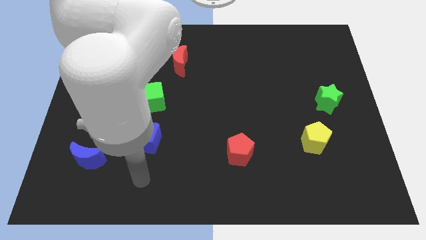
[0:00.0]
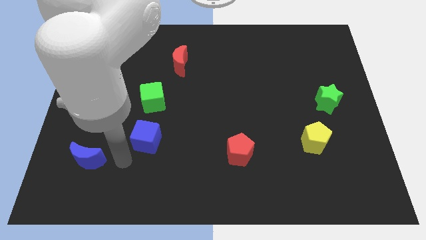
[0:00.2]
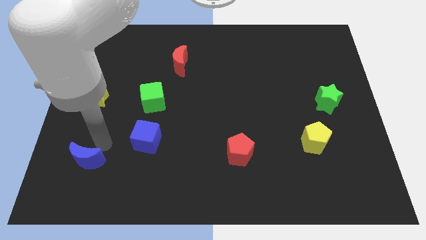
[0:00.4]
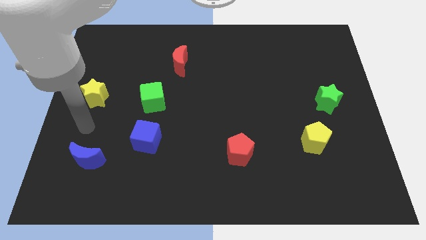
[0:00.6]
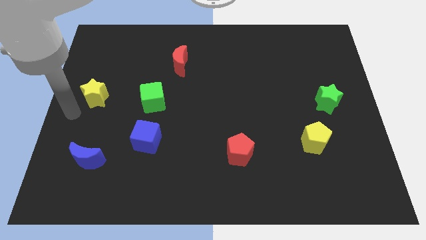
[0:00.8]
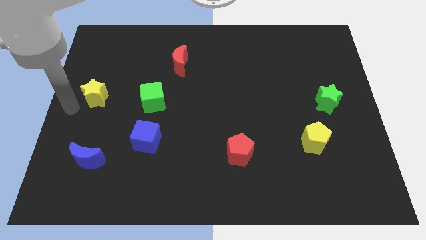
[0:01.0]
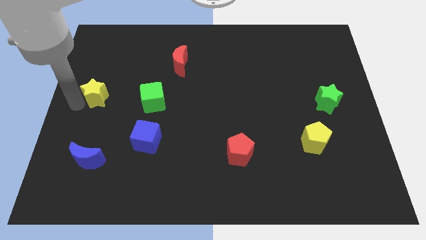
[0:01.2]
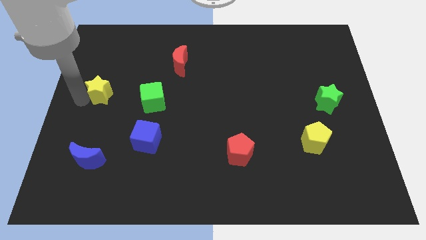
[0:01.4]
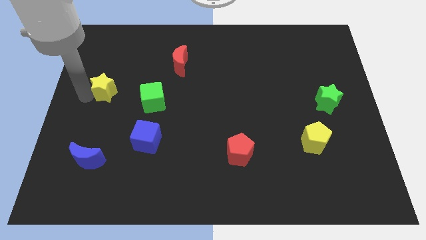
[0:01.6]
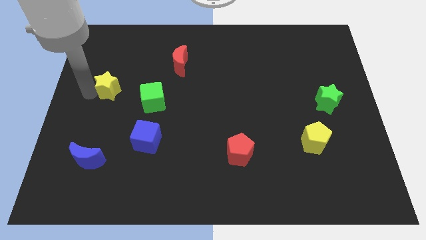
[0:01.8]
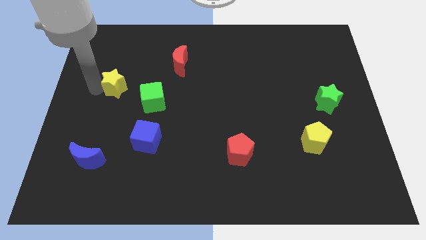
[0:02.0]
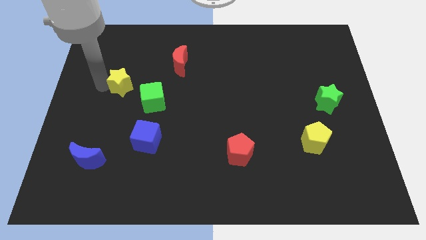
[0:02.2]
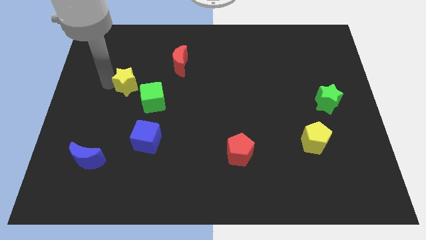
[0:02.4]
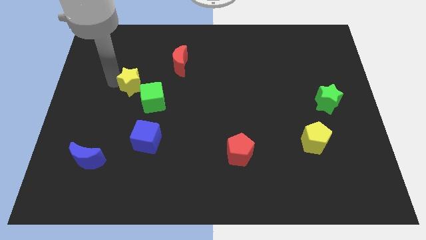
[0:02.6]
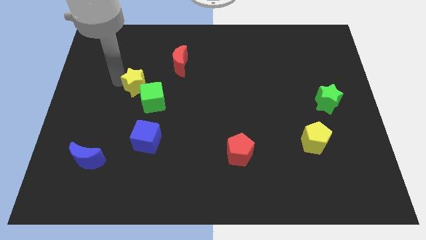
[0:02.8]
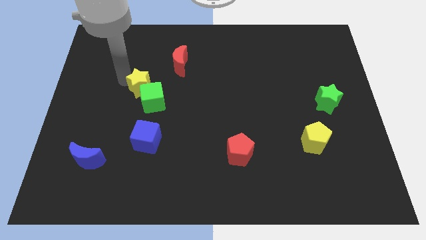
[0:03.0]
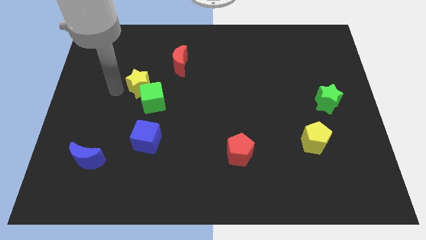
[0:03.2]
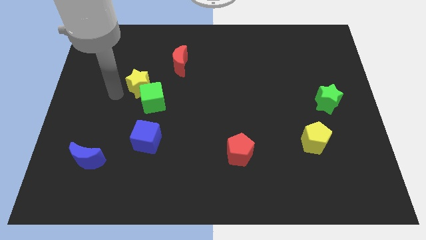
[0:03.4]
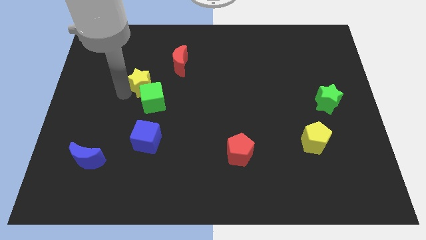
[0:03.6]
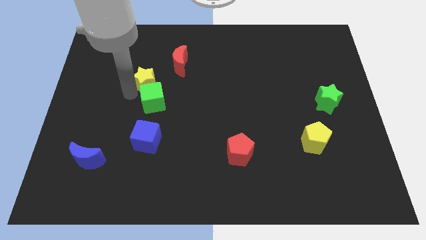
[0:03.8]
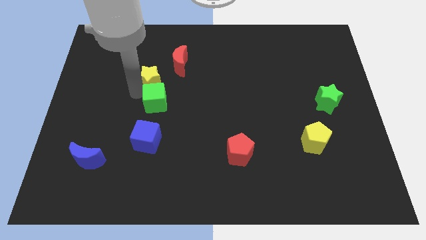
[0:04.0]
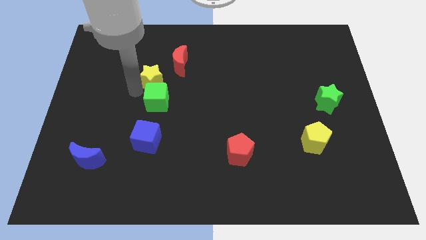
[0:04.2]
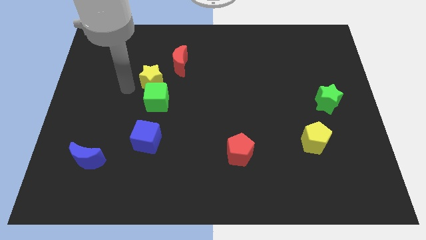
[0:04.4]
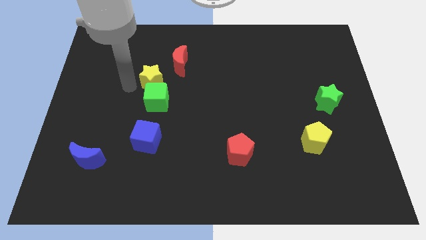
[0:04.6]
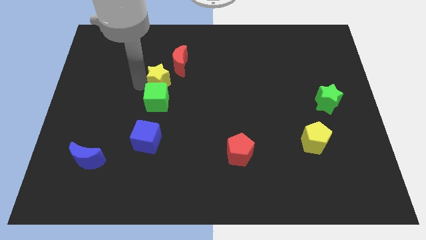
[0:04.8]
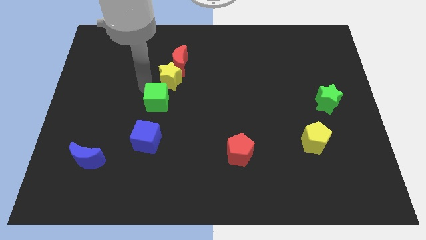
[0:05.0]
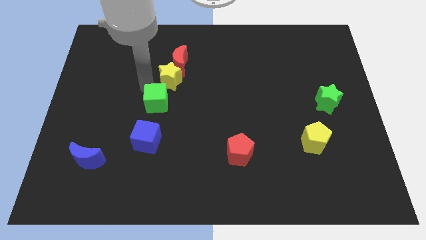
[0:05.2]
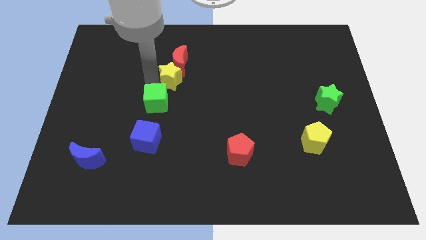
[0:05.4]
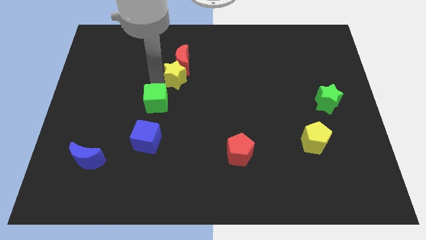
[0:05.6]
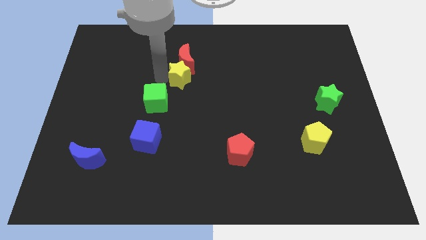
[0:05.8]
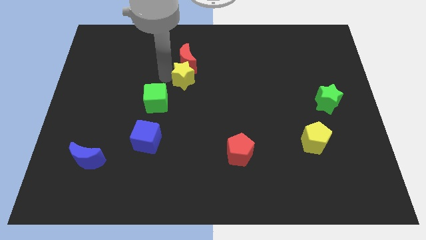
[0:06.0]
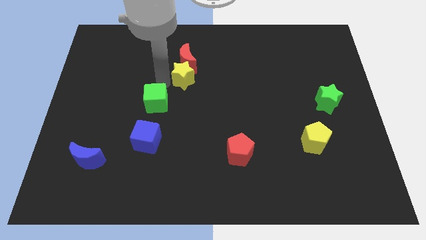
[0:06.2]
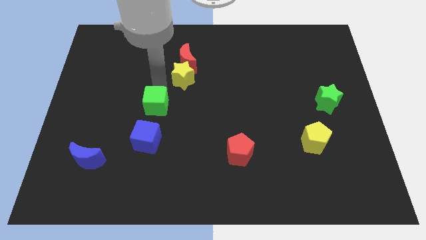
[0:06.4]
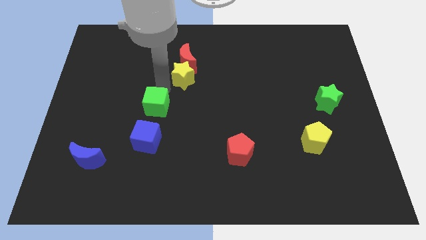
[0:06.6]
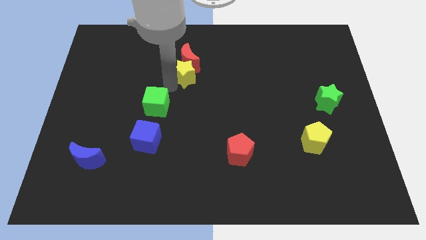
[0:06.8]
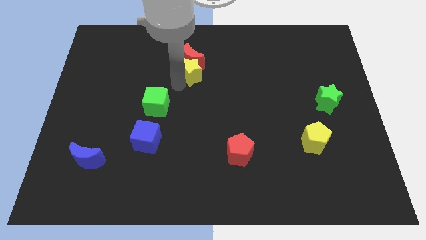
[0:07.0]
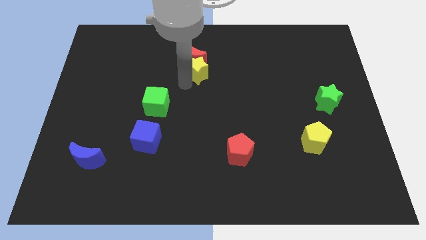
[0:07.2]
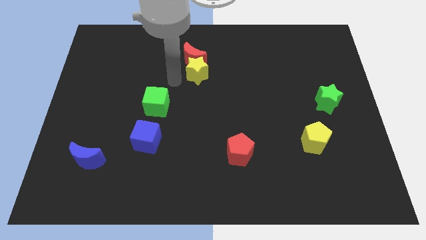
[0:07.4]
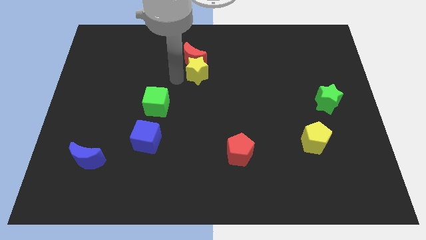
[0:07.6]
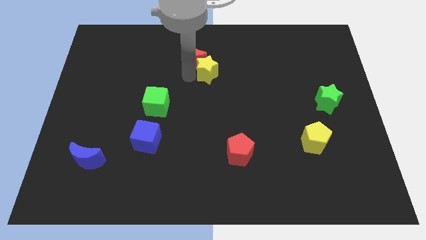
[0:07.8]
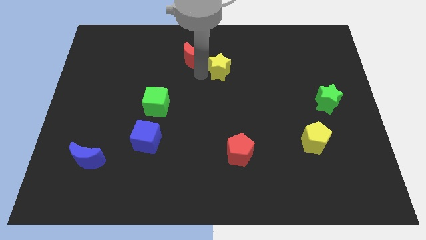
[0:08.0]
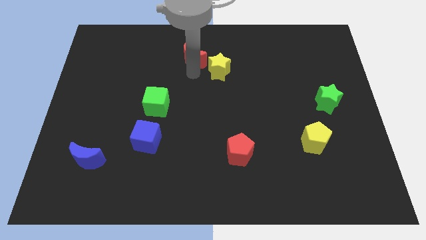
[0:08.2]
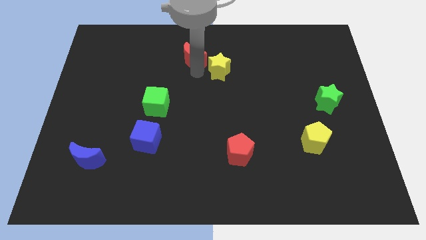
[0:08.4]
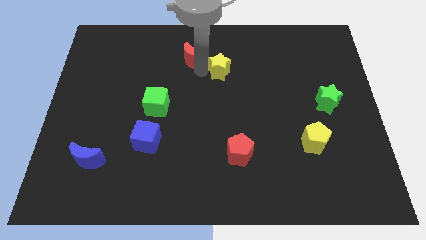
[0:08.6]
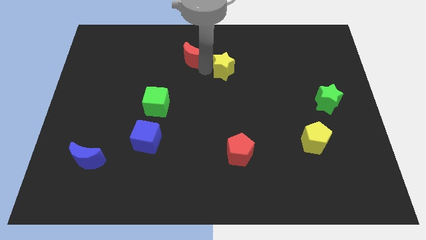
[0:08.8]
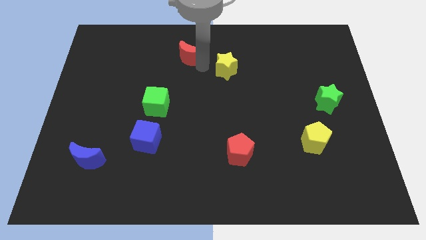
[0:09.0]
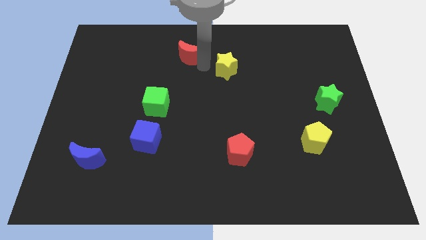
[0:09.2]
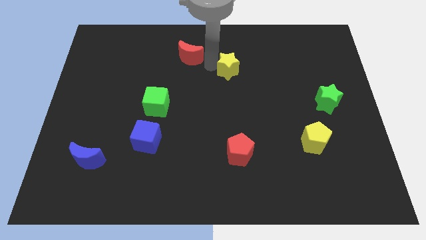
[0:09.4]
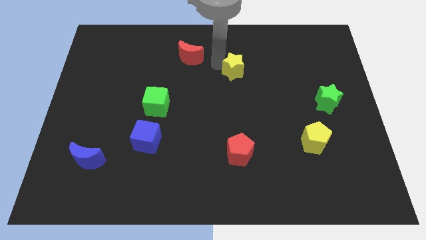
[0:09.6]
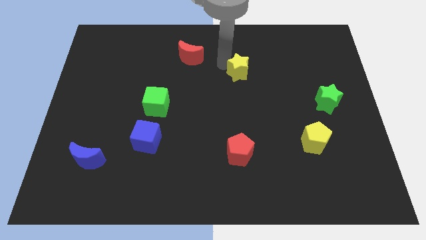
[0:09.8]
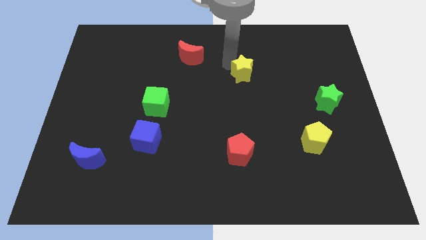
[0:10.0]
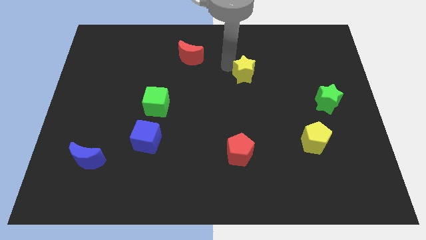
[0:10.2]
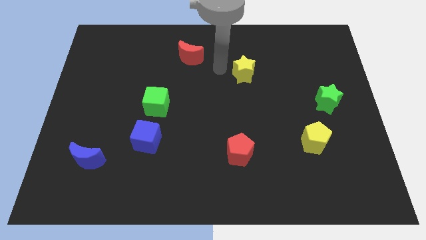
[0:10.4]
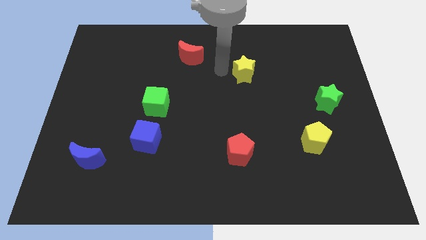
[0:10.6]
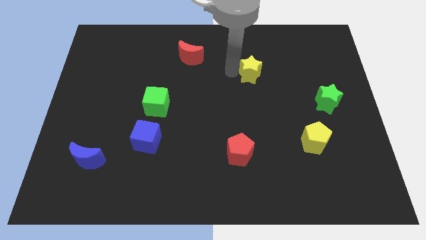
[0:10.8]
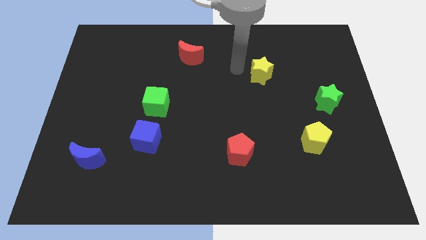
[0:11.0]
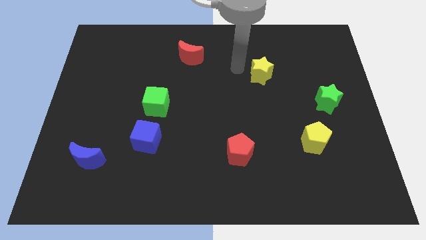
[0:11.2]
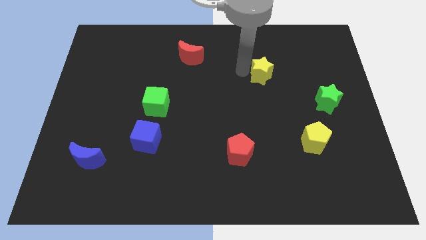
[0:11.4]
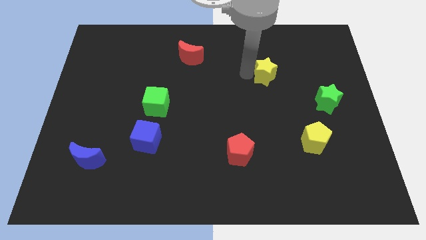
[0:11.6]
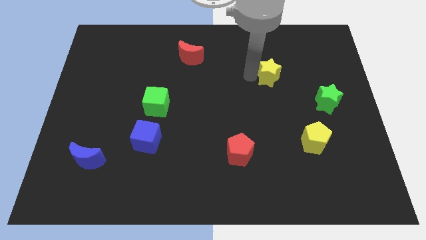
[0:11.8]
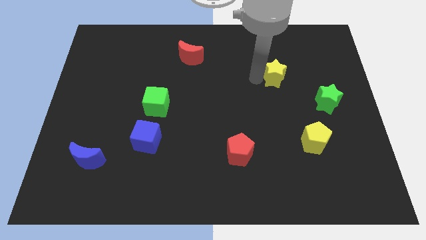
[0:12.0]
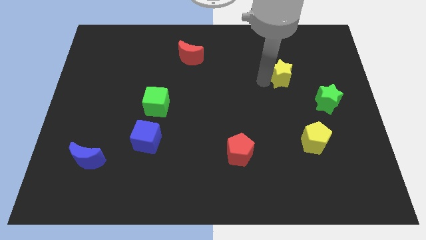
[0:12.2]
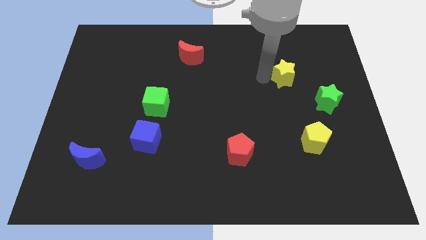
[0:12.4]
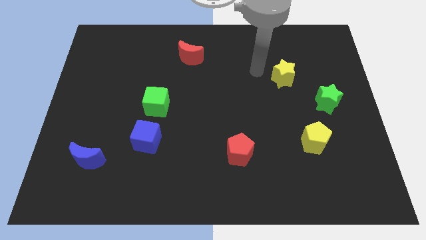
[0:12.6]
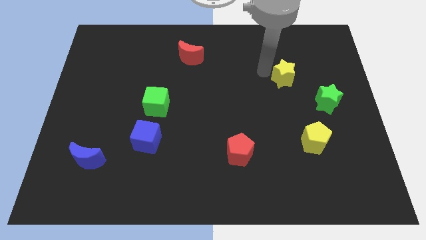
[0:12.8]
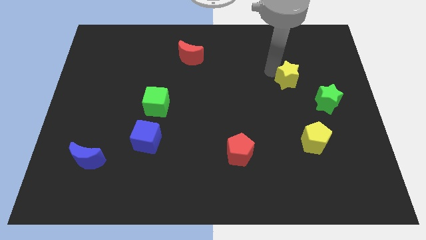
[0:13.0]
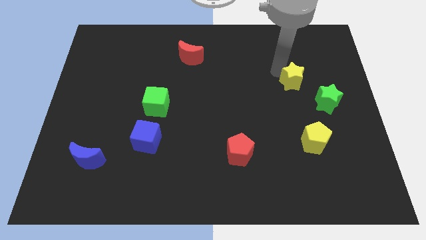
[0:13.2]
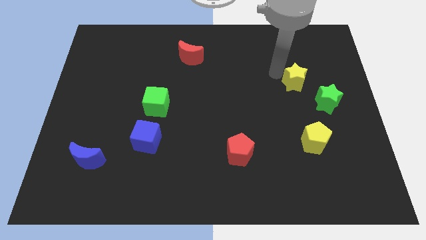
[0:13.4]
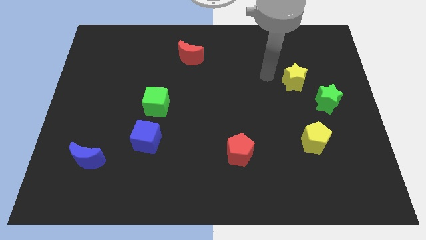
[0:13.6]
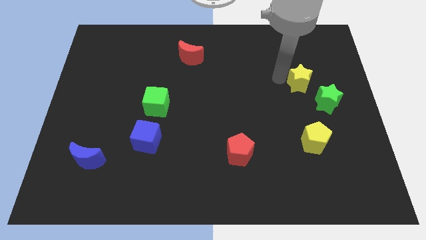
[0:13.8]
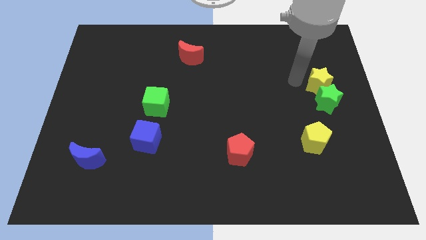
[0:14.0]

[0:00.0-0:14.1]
slide the yellow star to the right side
